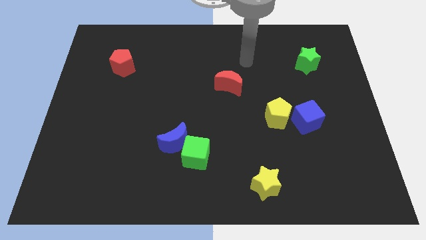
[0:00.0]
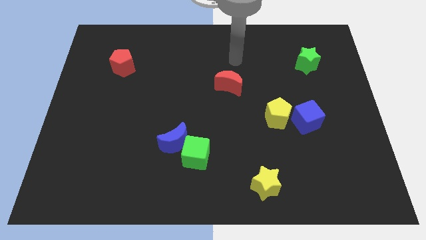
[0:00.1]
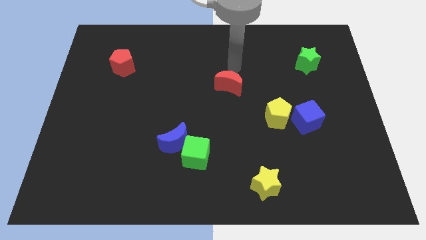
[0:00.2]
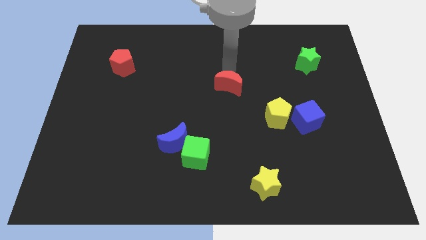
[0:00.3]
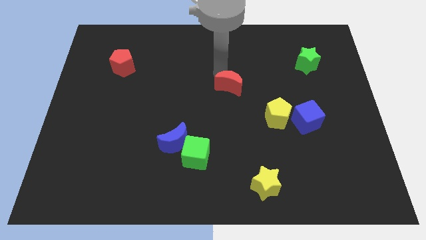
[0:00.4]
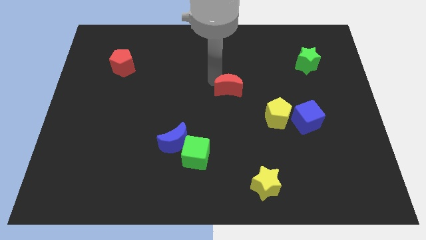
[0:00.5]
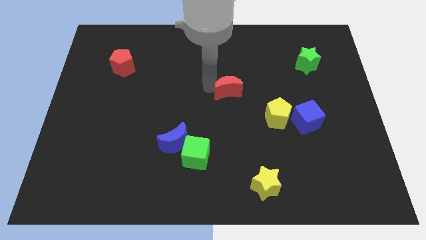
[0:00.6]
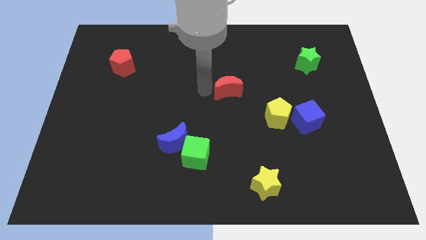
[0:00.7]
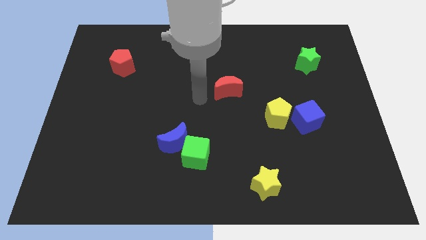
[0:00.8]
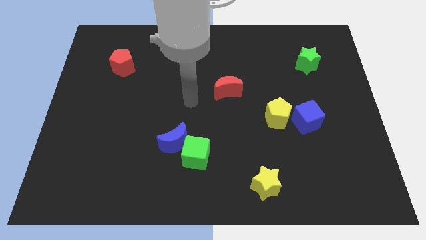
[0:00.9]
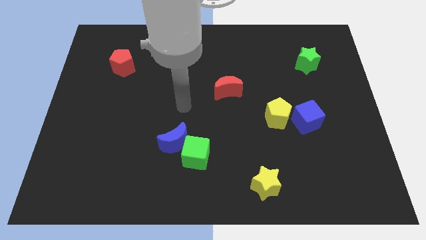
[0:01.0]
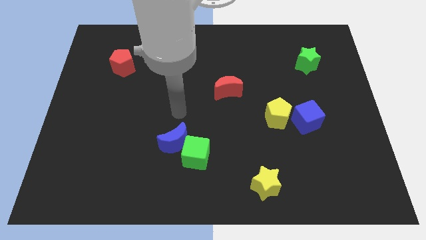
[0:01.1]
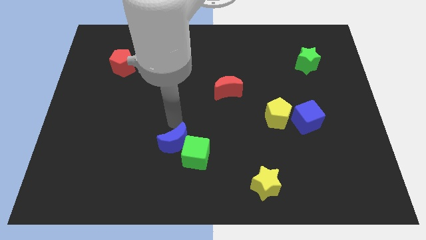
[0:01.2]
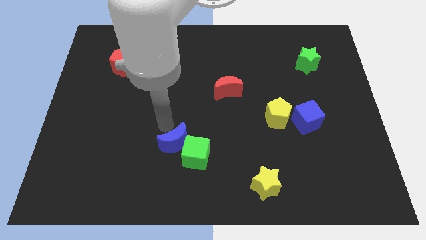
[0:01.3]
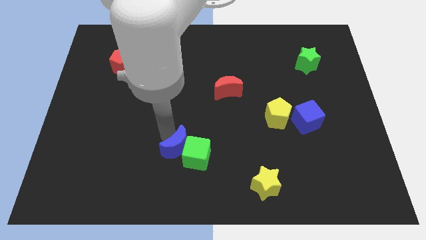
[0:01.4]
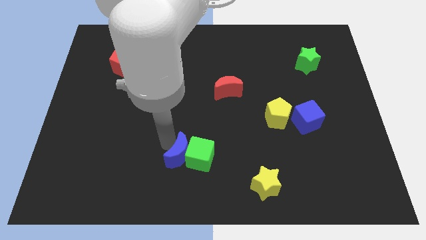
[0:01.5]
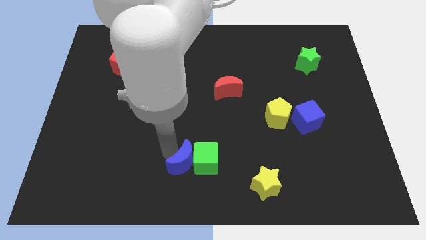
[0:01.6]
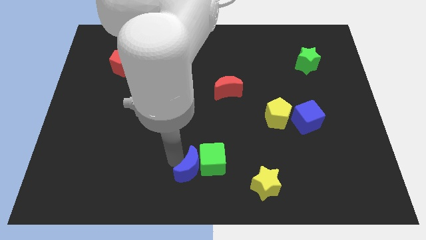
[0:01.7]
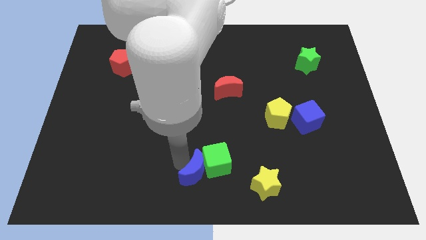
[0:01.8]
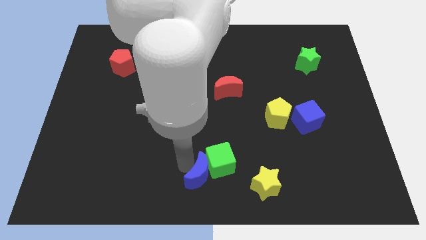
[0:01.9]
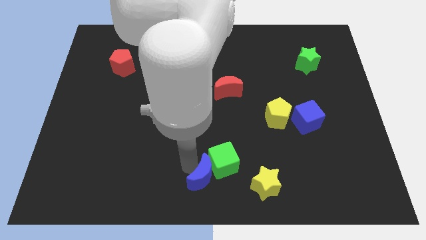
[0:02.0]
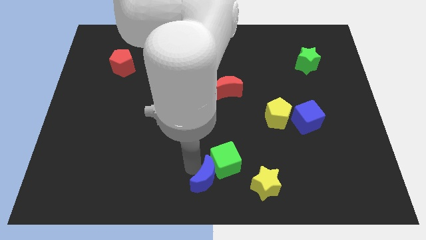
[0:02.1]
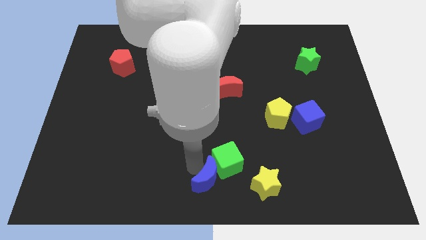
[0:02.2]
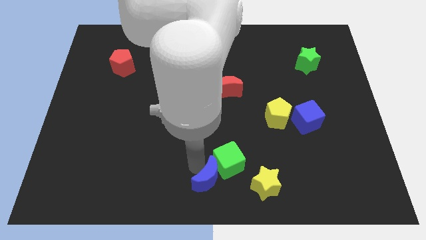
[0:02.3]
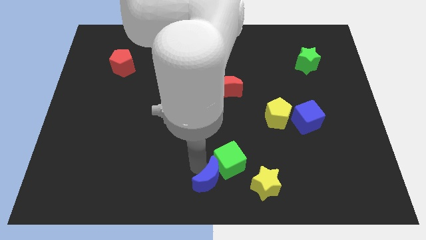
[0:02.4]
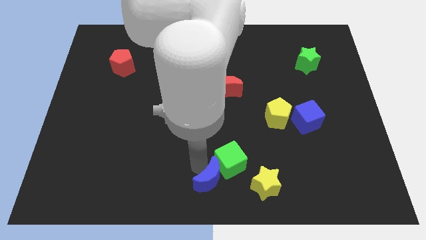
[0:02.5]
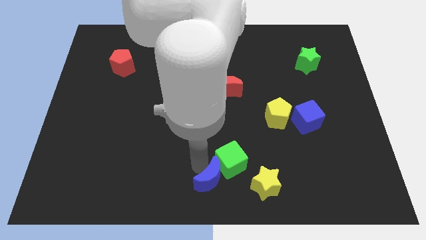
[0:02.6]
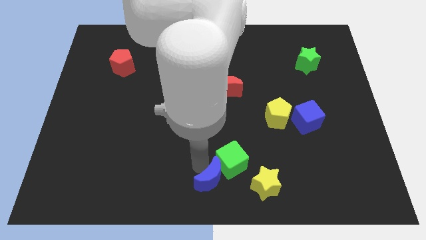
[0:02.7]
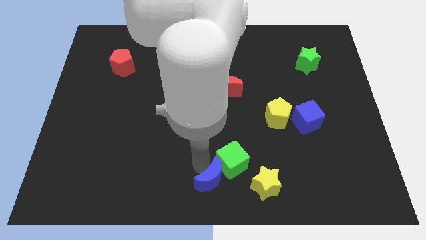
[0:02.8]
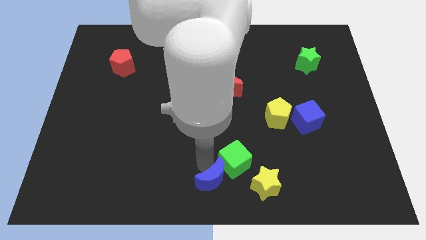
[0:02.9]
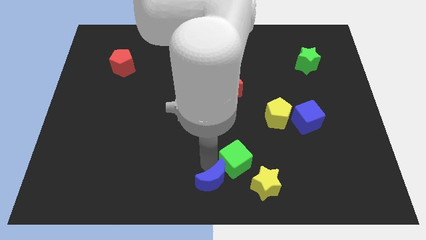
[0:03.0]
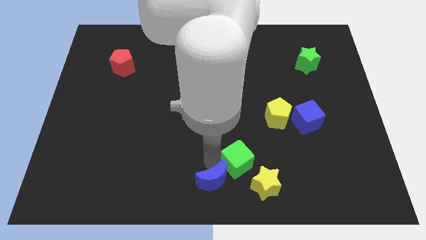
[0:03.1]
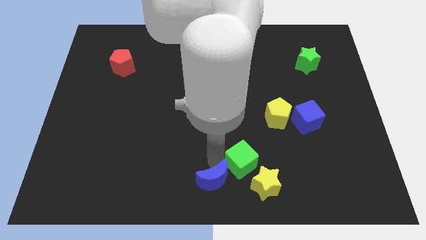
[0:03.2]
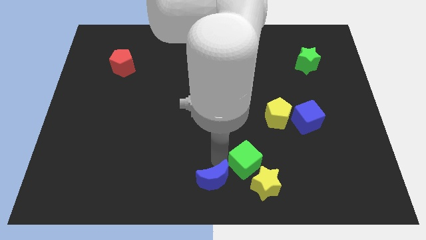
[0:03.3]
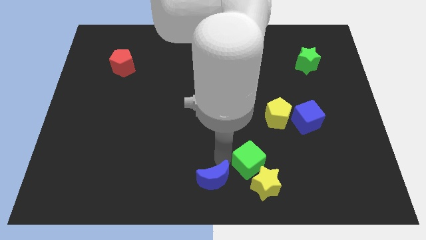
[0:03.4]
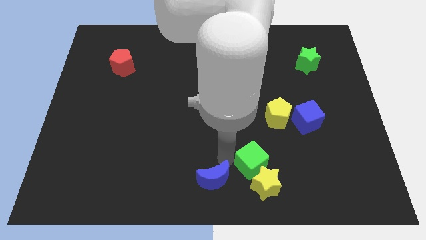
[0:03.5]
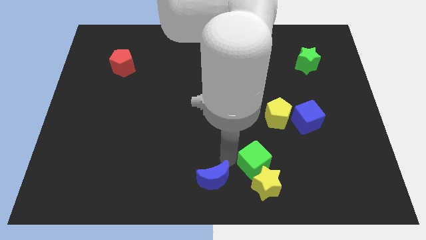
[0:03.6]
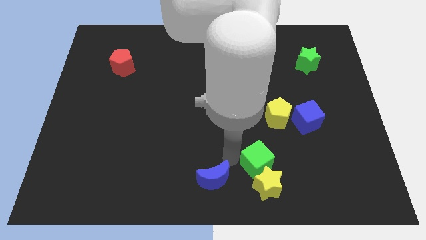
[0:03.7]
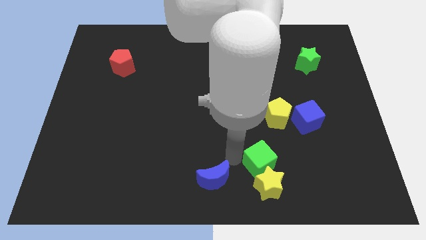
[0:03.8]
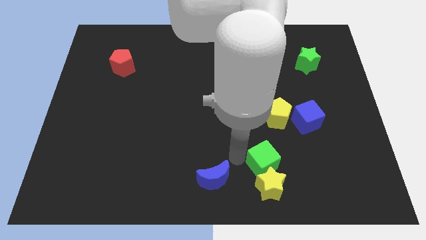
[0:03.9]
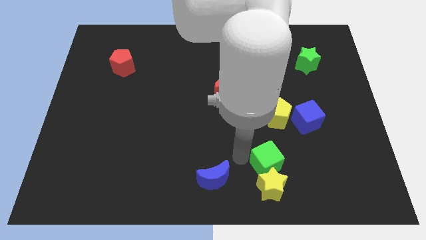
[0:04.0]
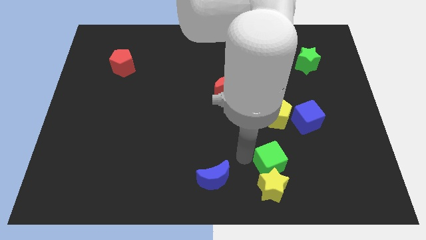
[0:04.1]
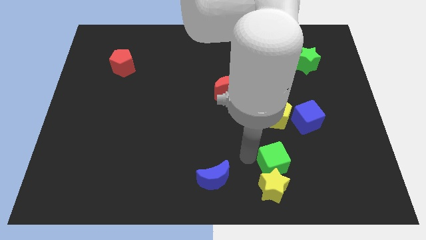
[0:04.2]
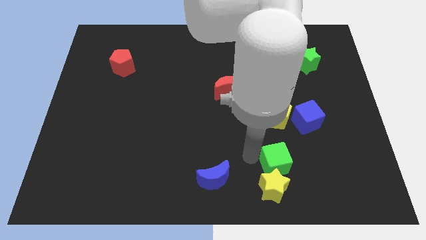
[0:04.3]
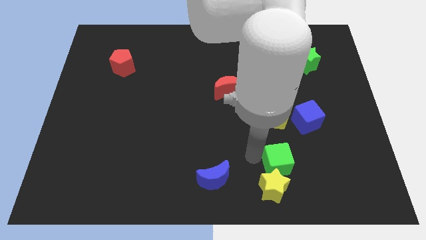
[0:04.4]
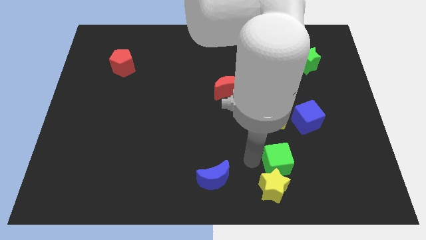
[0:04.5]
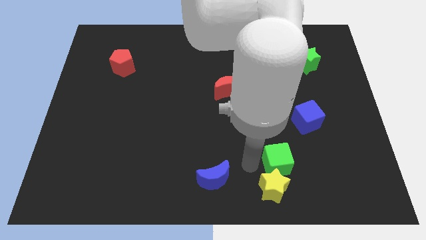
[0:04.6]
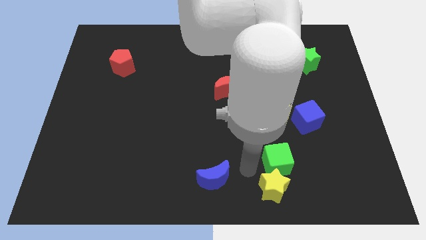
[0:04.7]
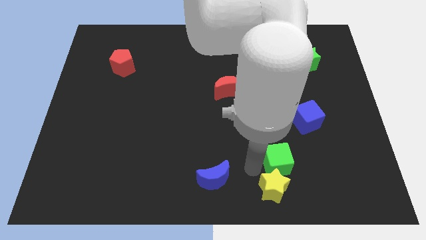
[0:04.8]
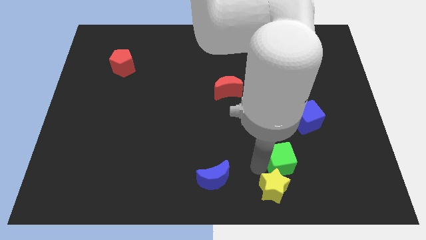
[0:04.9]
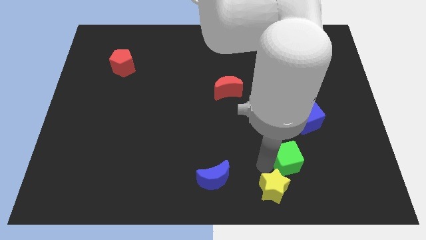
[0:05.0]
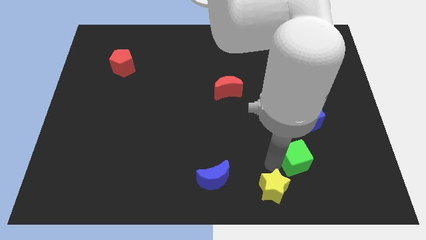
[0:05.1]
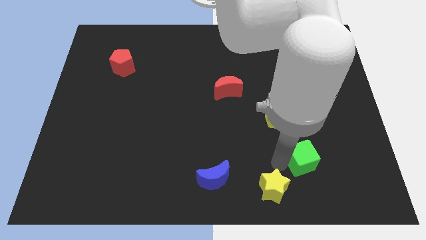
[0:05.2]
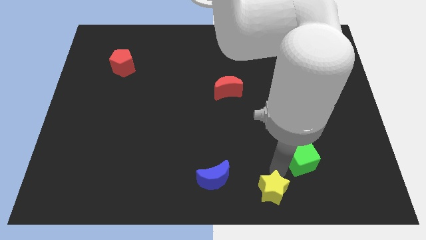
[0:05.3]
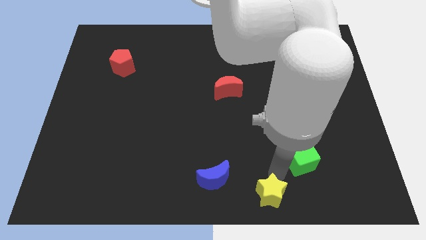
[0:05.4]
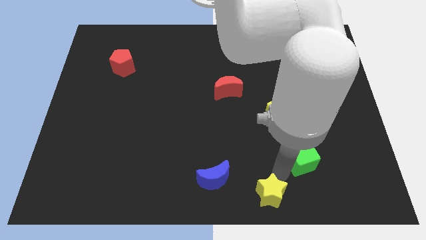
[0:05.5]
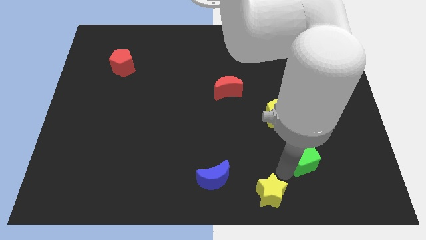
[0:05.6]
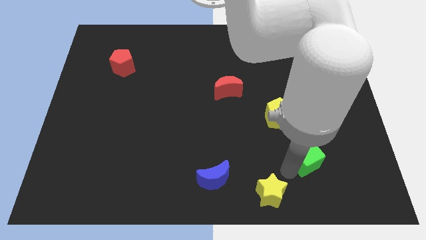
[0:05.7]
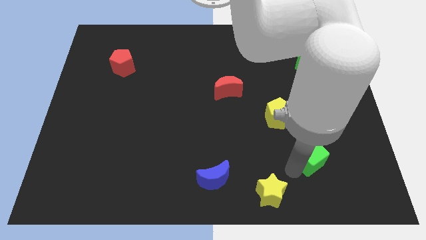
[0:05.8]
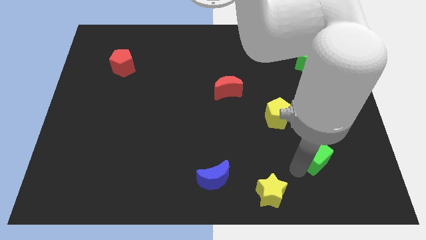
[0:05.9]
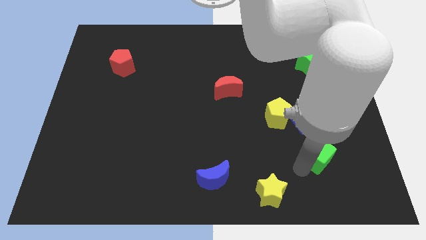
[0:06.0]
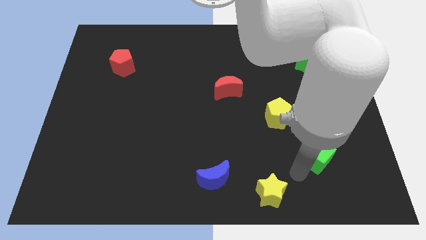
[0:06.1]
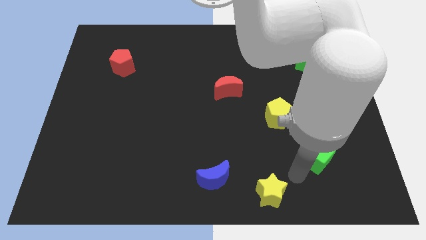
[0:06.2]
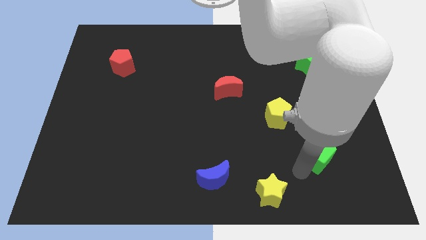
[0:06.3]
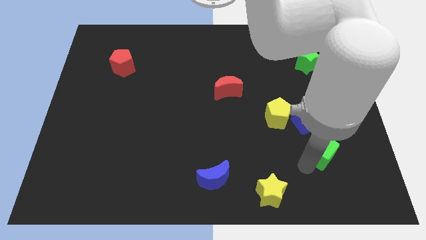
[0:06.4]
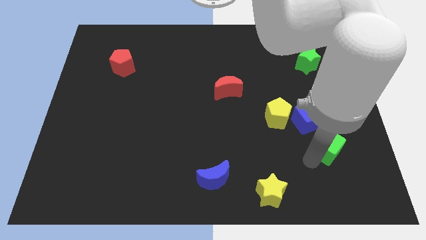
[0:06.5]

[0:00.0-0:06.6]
push the green cube to the bottom right side of the blue cube

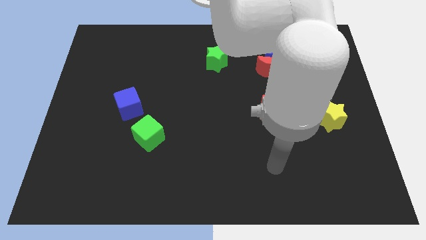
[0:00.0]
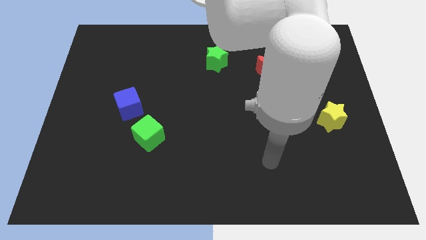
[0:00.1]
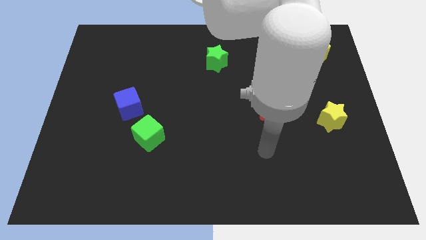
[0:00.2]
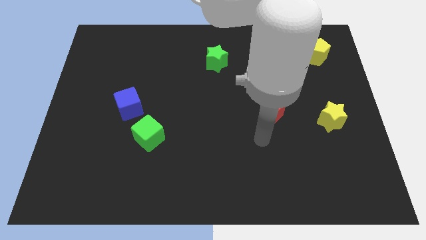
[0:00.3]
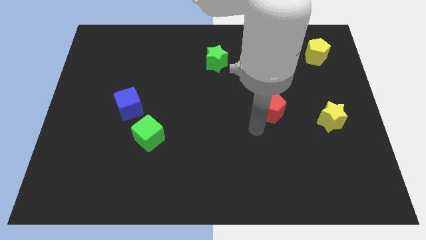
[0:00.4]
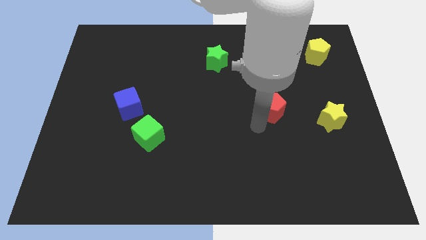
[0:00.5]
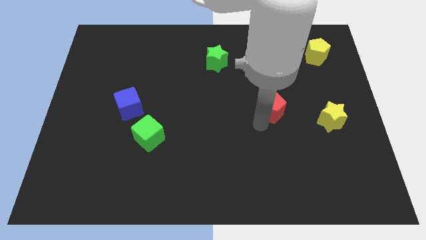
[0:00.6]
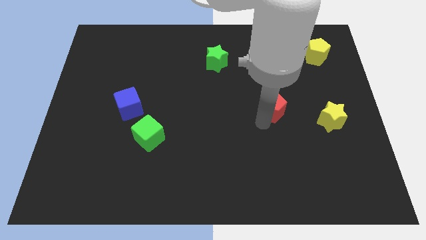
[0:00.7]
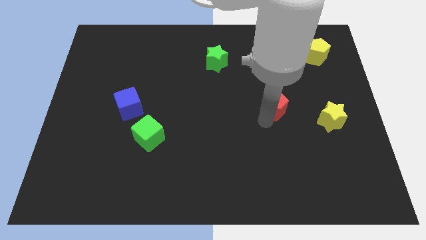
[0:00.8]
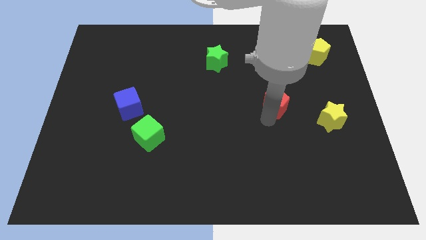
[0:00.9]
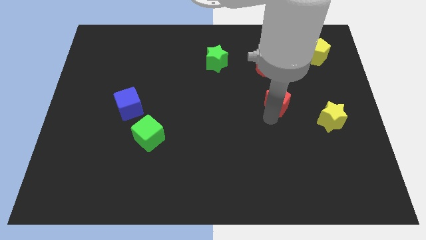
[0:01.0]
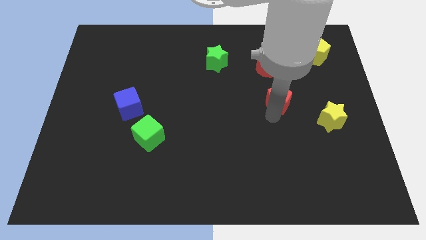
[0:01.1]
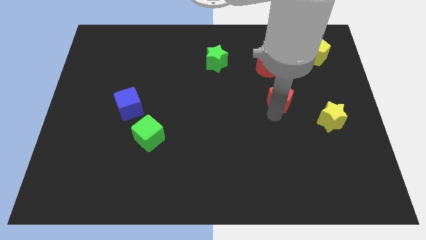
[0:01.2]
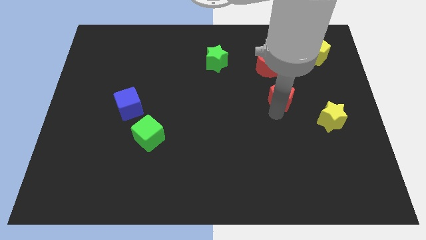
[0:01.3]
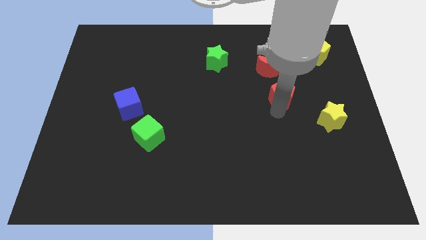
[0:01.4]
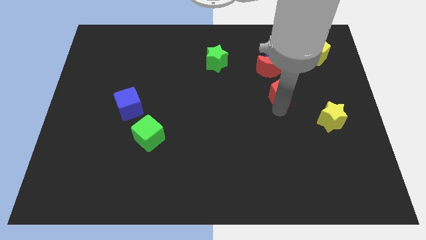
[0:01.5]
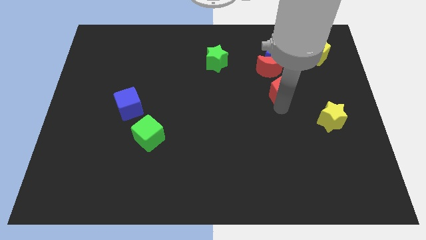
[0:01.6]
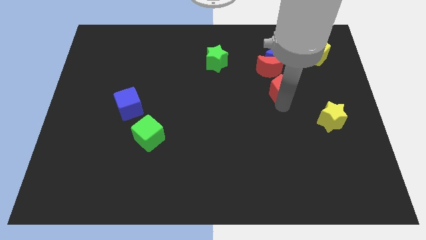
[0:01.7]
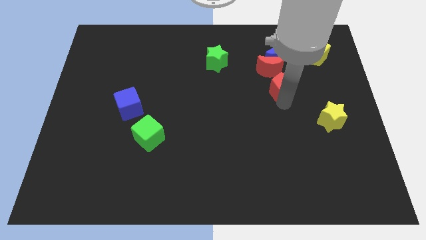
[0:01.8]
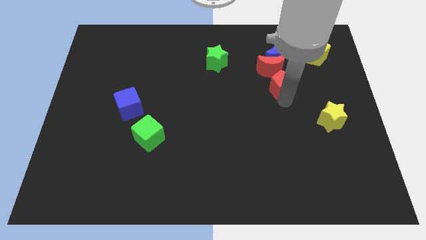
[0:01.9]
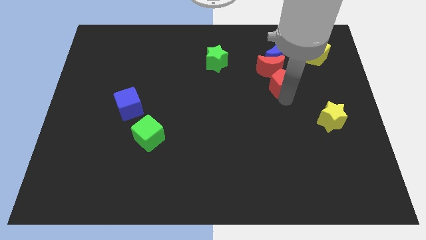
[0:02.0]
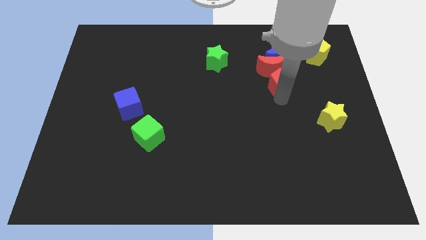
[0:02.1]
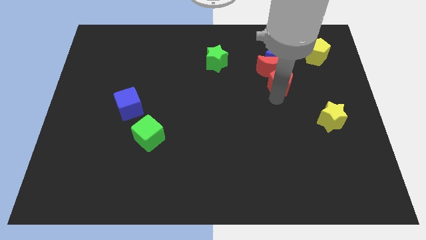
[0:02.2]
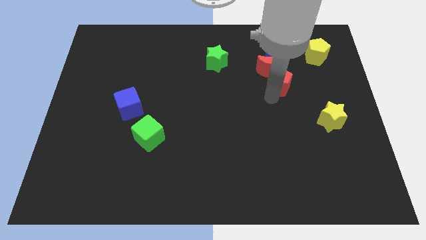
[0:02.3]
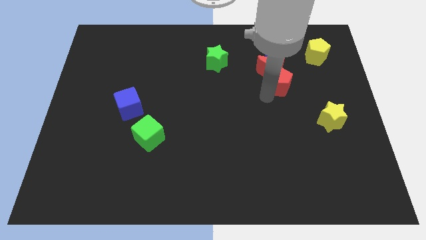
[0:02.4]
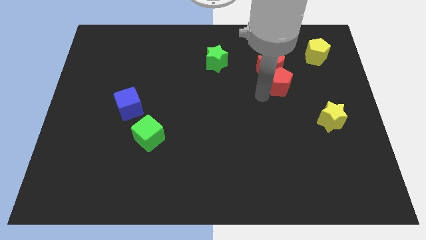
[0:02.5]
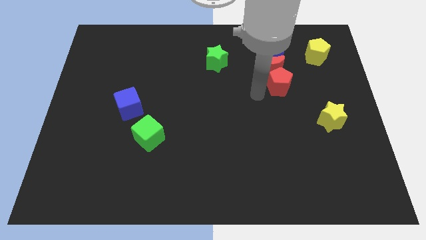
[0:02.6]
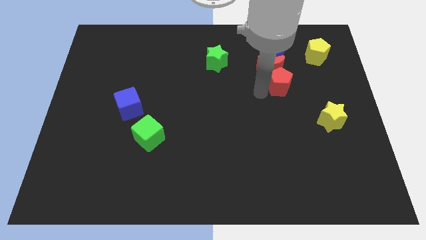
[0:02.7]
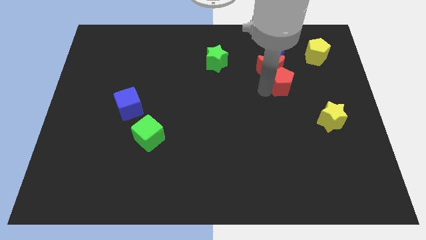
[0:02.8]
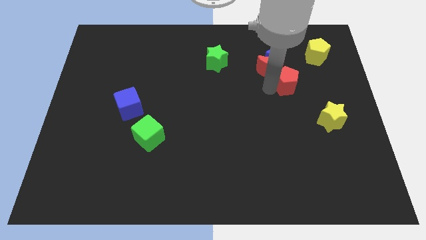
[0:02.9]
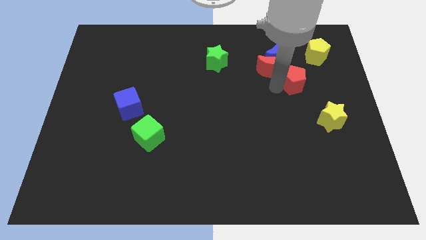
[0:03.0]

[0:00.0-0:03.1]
push the red pentagon to the bottom left side of the yellow pentagon
